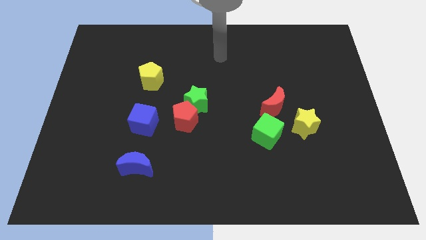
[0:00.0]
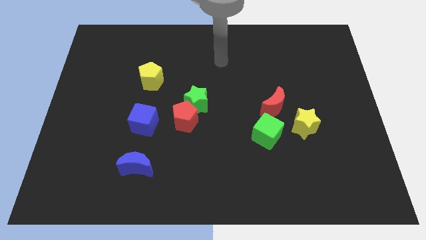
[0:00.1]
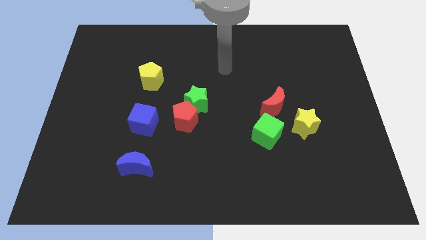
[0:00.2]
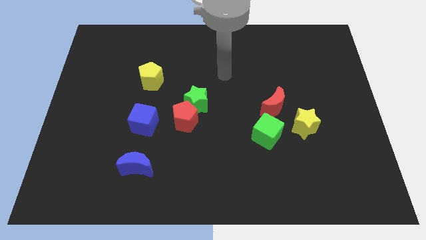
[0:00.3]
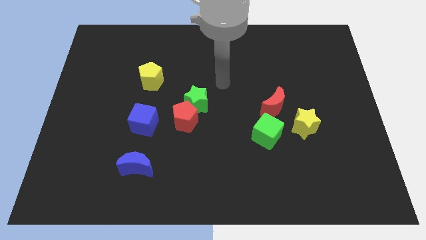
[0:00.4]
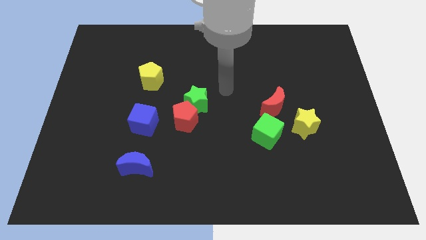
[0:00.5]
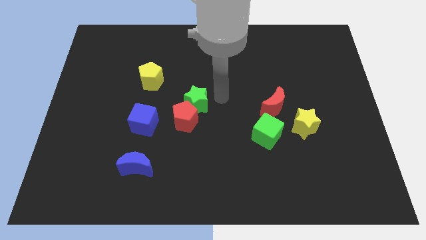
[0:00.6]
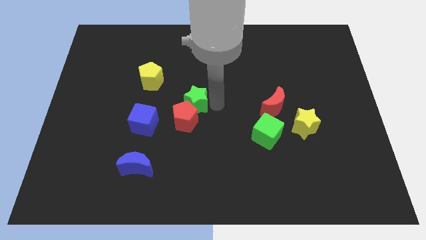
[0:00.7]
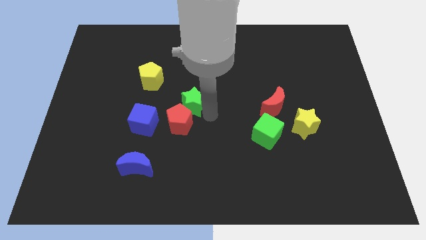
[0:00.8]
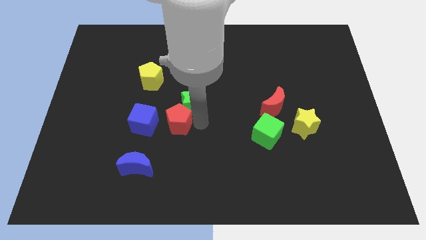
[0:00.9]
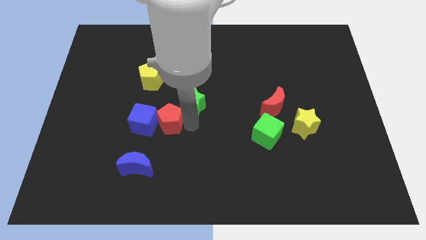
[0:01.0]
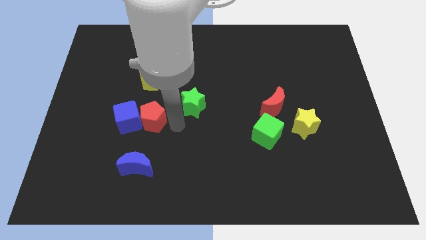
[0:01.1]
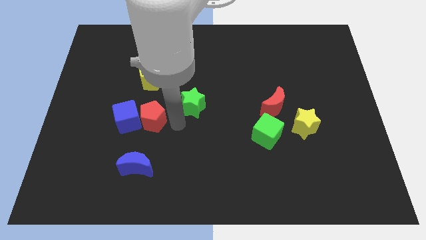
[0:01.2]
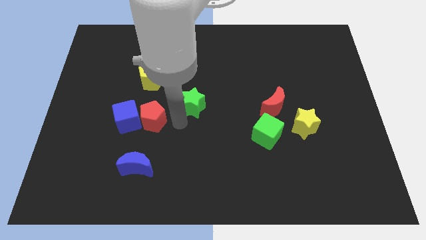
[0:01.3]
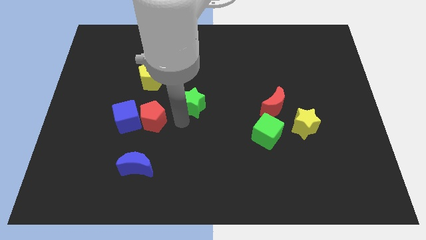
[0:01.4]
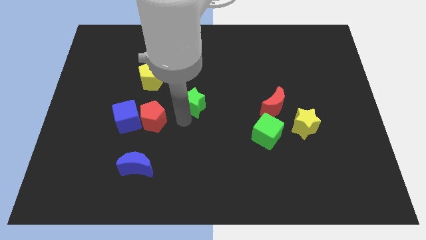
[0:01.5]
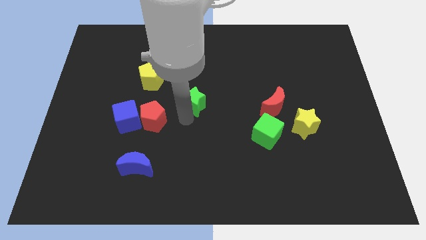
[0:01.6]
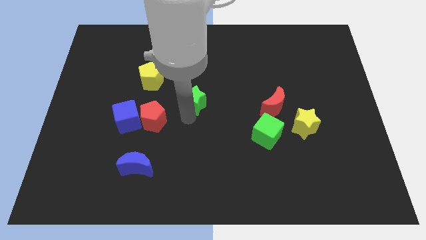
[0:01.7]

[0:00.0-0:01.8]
pull the green star apart from the red pentagon

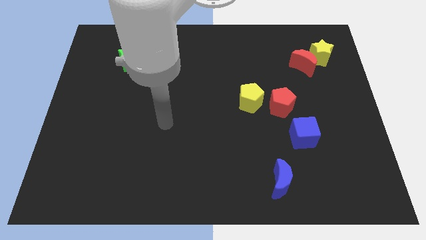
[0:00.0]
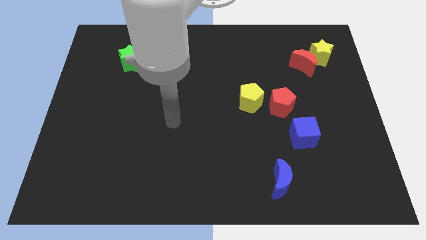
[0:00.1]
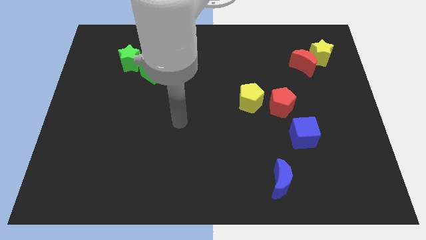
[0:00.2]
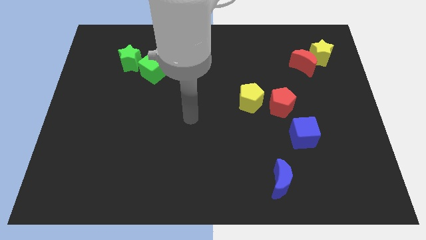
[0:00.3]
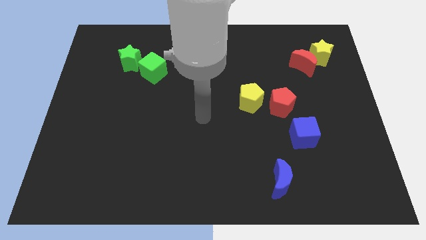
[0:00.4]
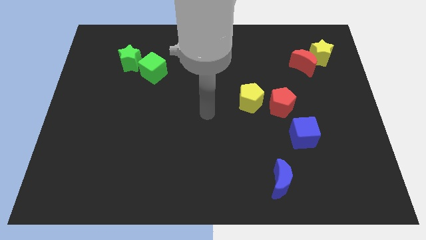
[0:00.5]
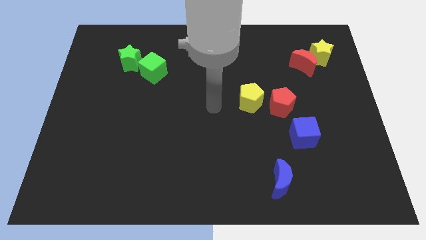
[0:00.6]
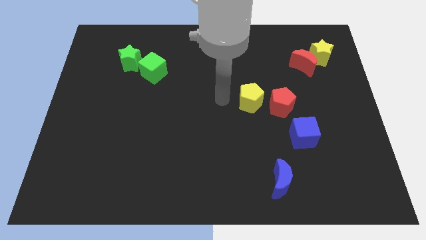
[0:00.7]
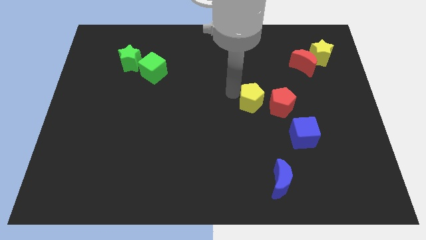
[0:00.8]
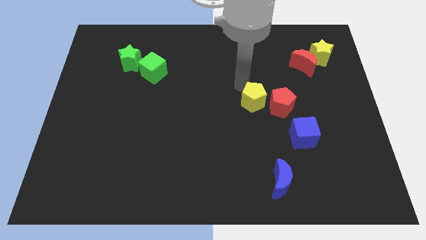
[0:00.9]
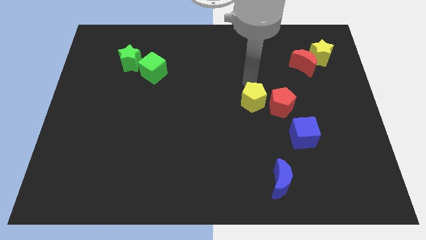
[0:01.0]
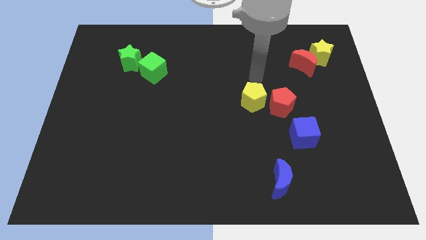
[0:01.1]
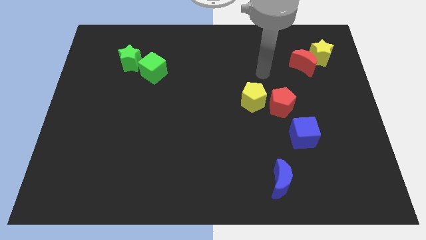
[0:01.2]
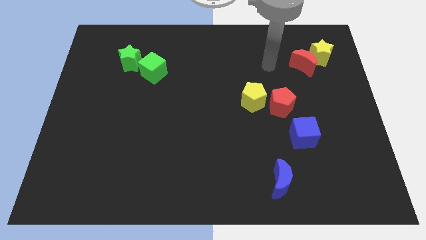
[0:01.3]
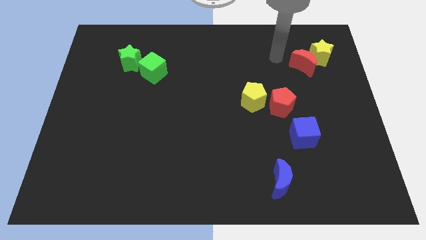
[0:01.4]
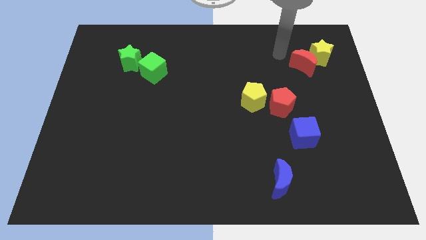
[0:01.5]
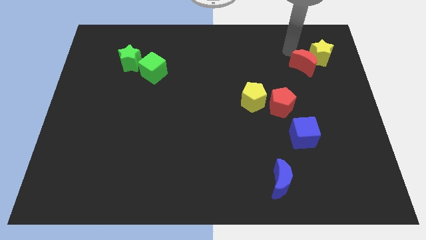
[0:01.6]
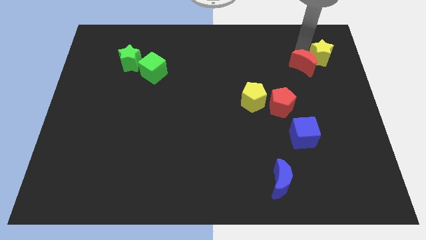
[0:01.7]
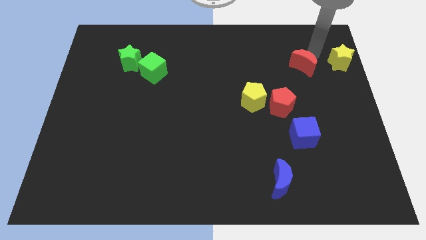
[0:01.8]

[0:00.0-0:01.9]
move the red moon away from the yellow star

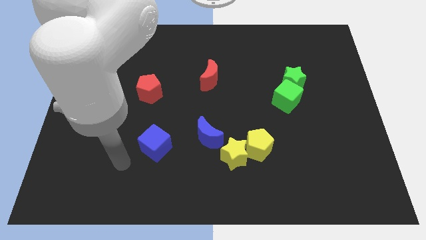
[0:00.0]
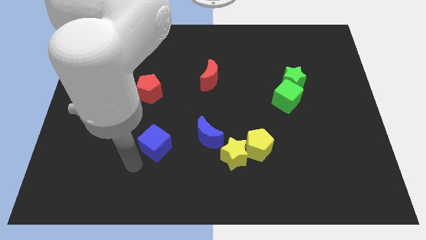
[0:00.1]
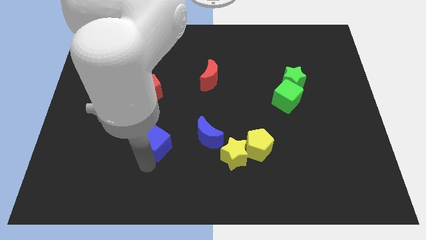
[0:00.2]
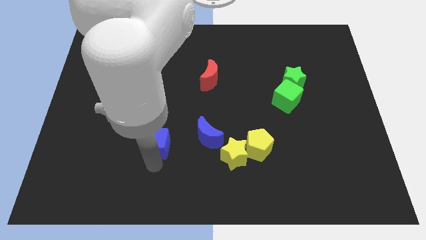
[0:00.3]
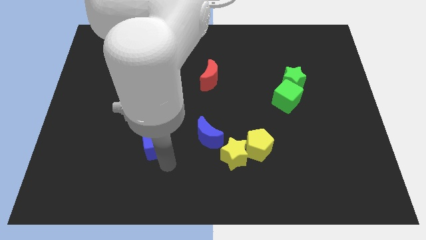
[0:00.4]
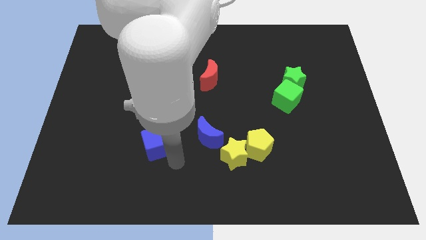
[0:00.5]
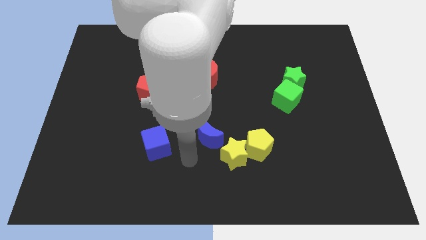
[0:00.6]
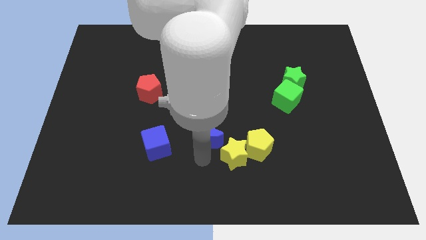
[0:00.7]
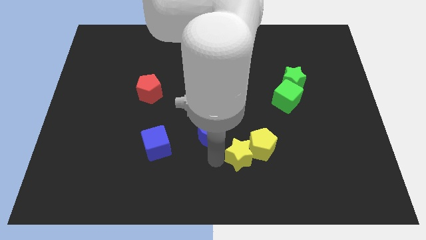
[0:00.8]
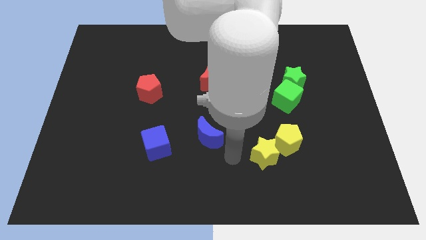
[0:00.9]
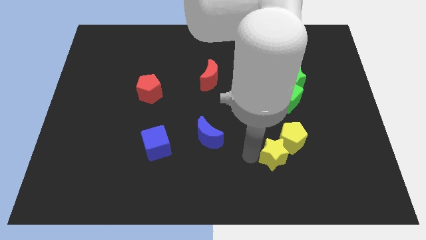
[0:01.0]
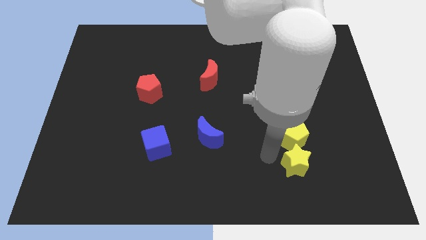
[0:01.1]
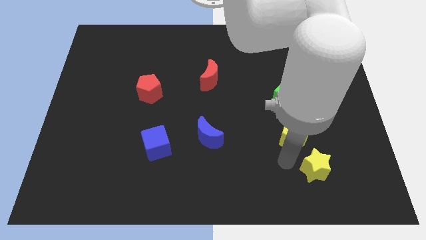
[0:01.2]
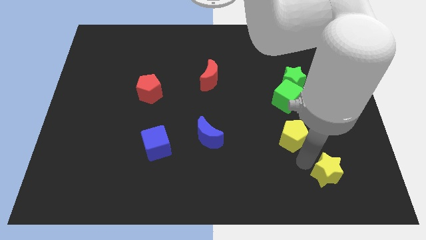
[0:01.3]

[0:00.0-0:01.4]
move the yellow pentagon away from the yellow star

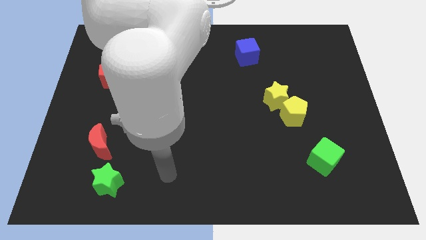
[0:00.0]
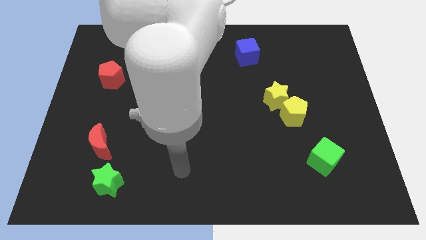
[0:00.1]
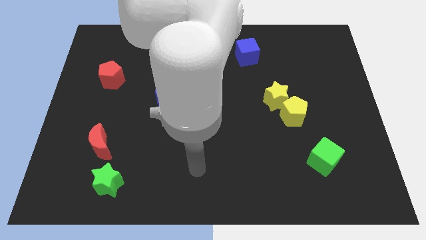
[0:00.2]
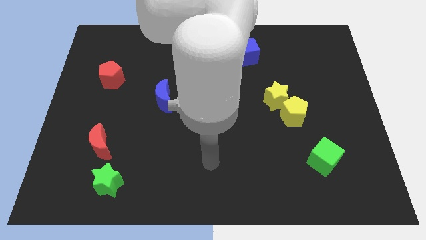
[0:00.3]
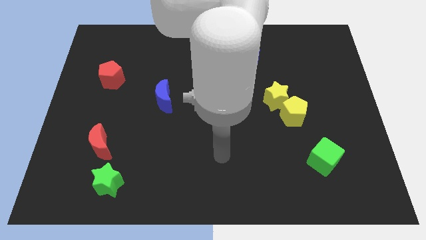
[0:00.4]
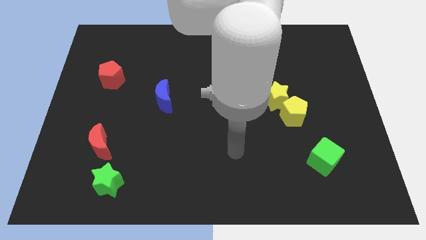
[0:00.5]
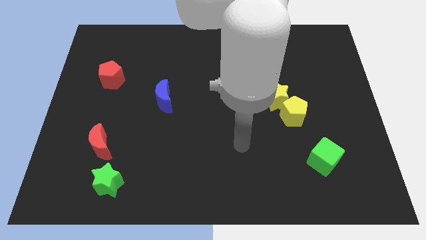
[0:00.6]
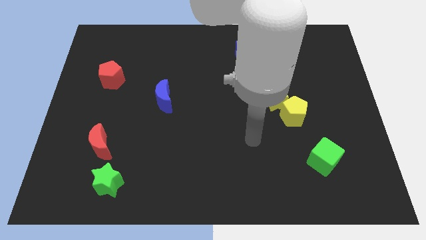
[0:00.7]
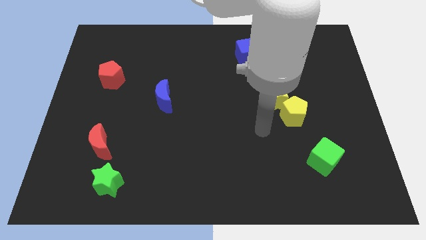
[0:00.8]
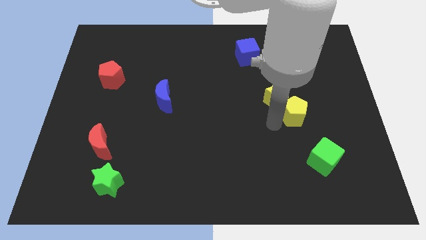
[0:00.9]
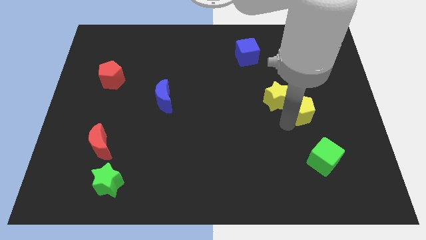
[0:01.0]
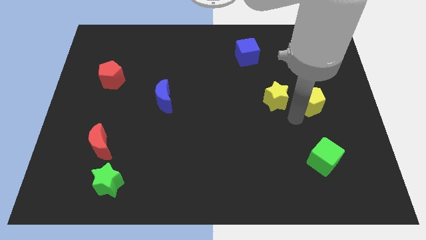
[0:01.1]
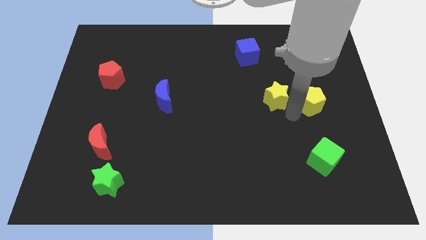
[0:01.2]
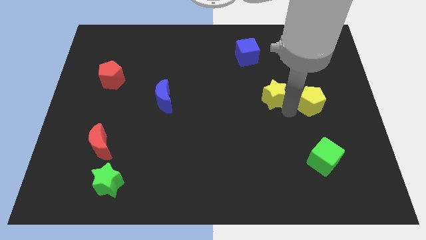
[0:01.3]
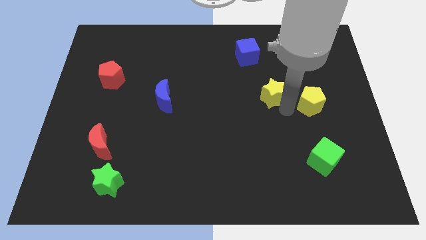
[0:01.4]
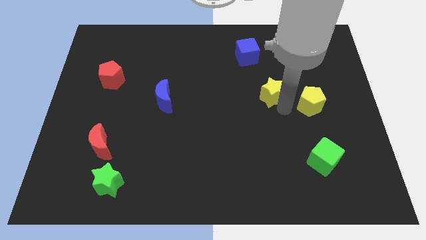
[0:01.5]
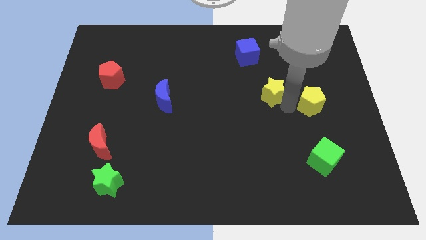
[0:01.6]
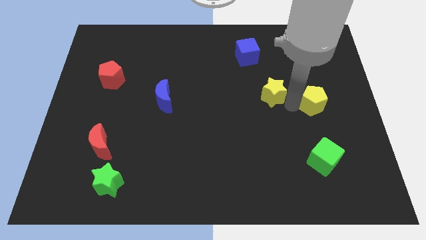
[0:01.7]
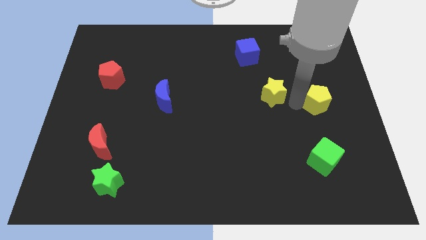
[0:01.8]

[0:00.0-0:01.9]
separate the yellow star from the yellow pentagon

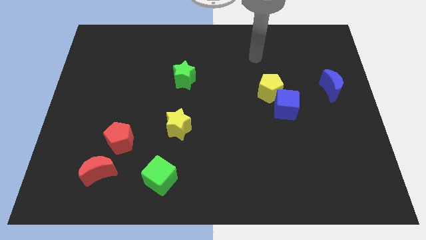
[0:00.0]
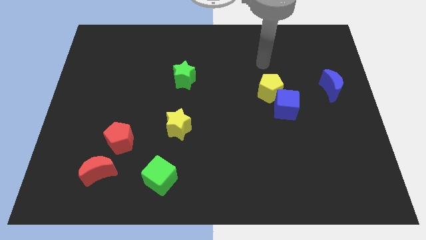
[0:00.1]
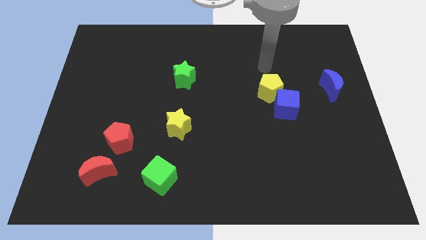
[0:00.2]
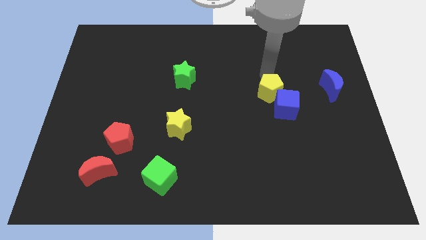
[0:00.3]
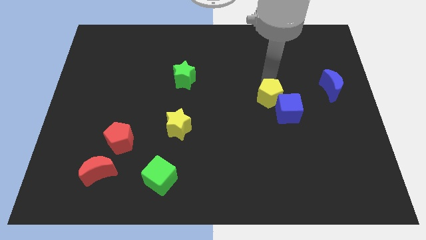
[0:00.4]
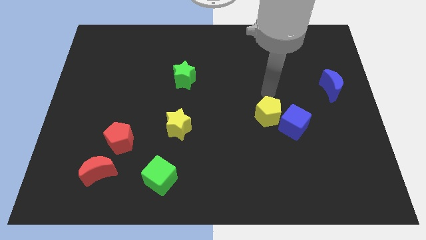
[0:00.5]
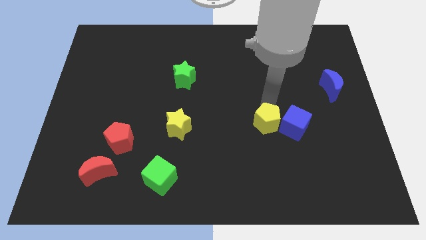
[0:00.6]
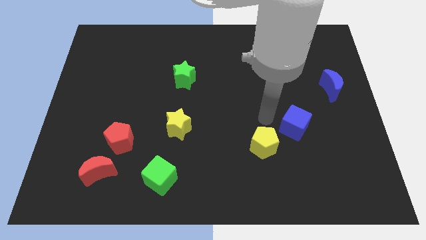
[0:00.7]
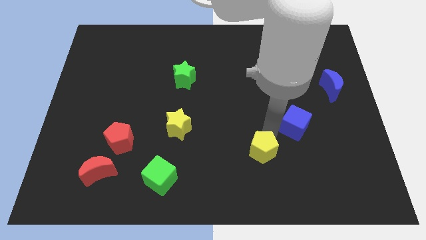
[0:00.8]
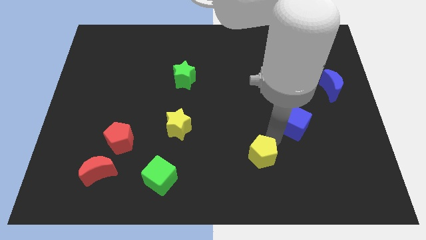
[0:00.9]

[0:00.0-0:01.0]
move the blue cube away from the yellow pentagon

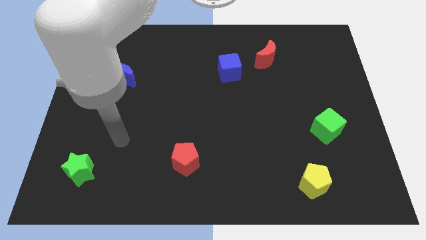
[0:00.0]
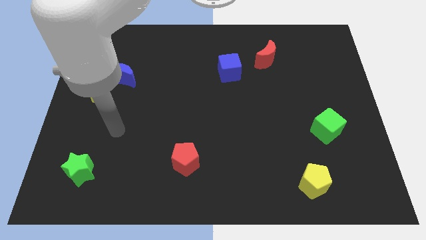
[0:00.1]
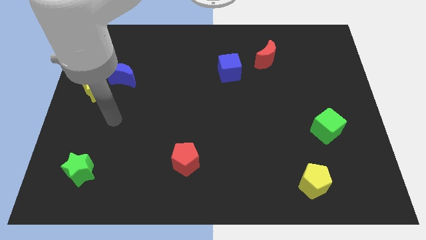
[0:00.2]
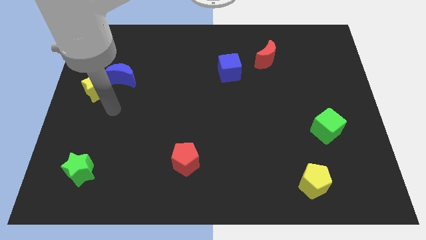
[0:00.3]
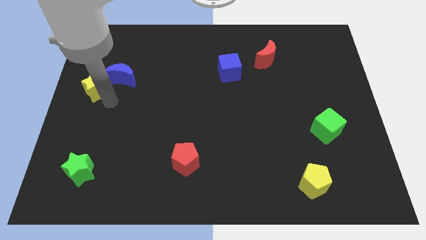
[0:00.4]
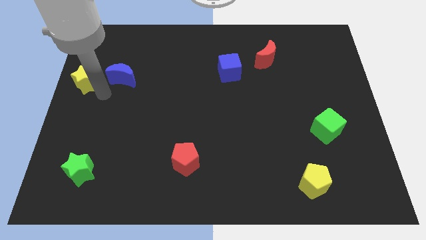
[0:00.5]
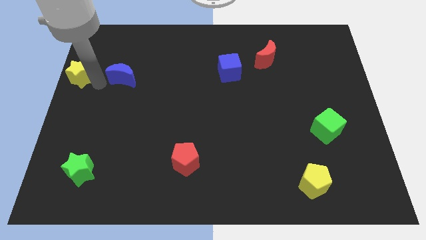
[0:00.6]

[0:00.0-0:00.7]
move the blue moon away from the yellow star

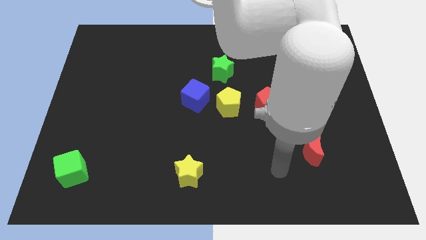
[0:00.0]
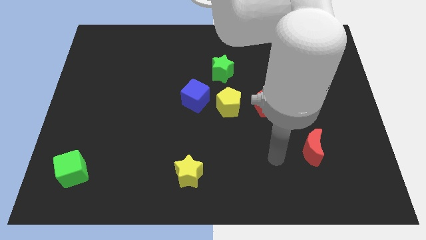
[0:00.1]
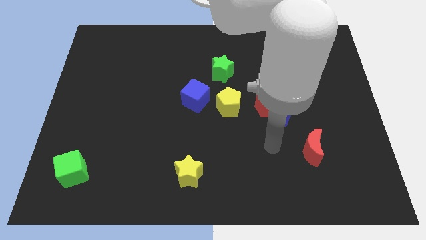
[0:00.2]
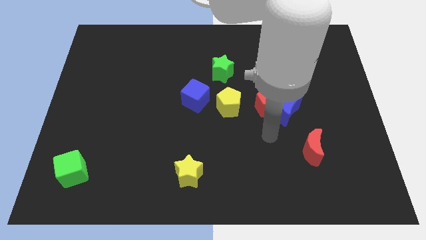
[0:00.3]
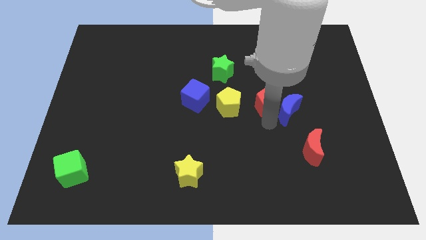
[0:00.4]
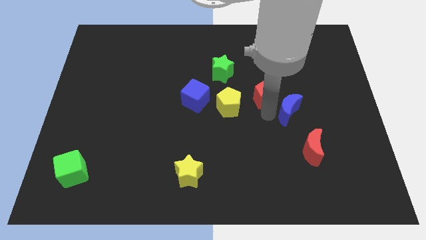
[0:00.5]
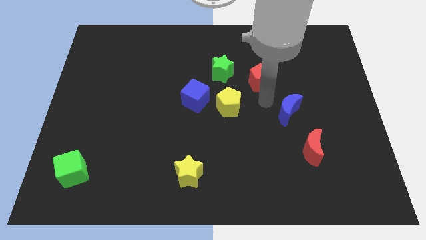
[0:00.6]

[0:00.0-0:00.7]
separate the blue moon from the red pentagon
